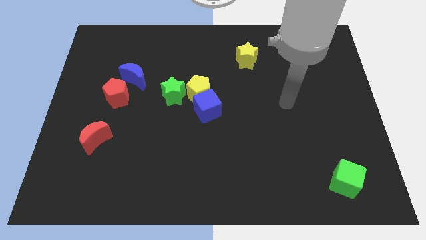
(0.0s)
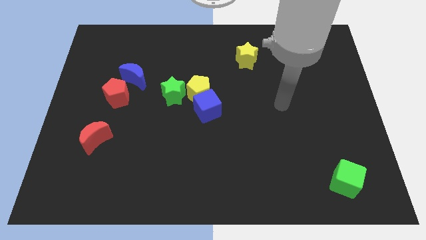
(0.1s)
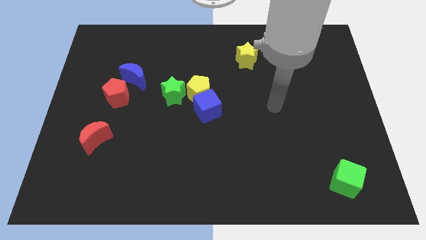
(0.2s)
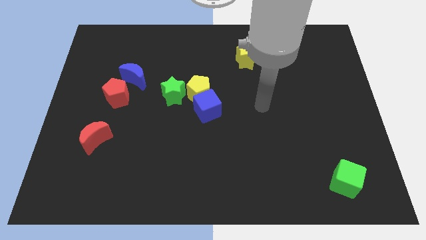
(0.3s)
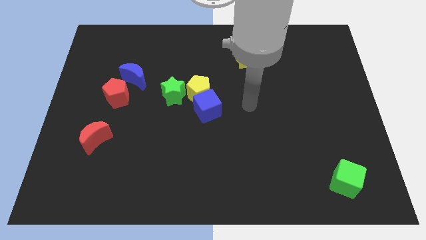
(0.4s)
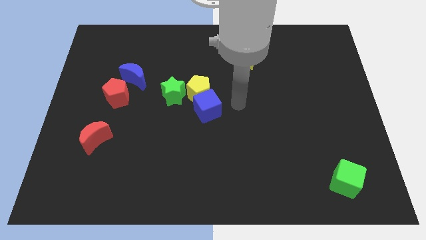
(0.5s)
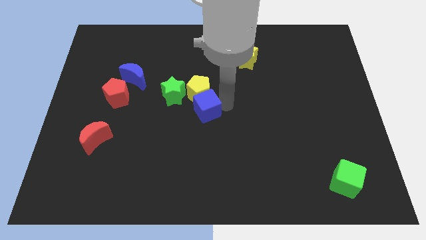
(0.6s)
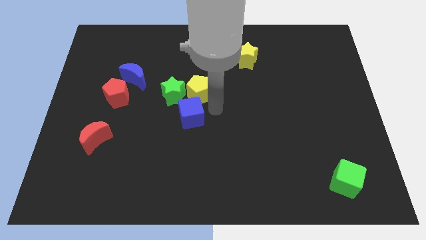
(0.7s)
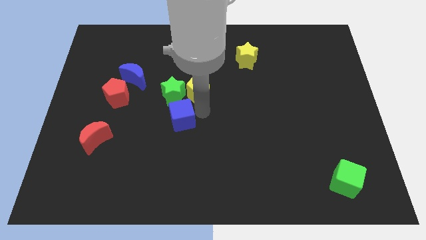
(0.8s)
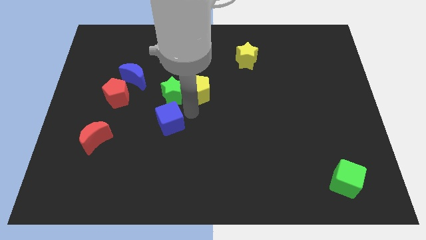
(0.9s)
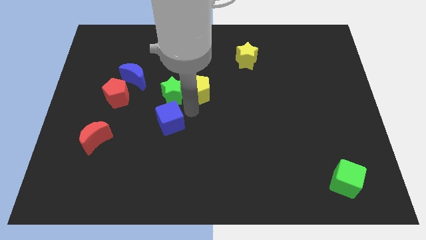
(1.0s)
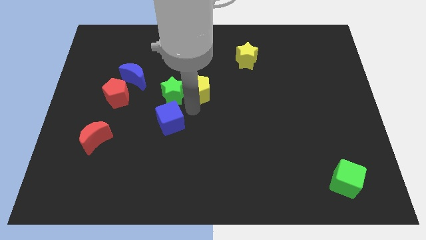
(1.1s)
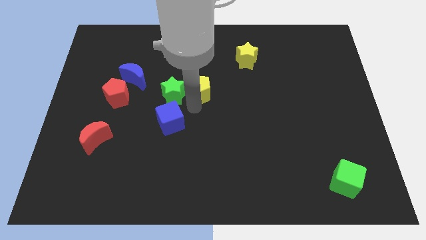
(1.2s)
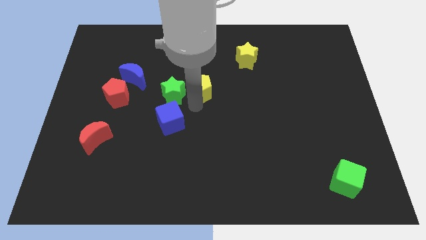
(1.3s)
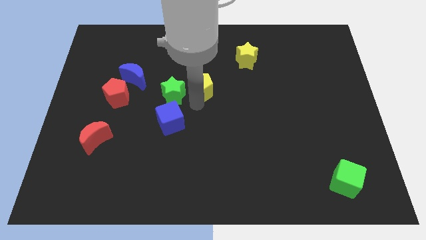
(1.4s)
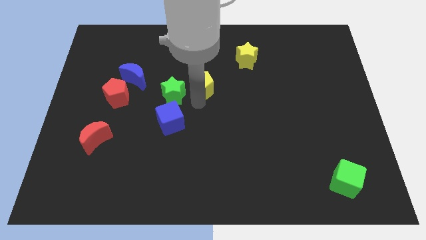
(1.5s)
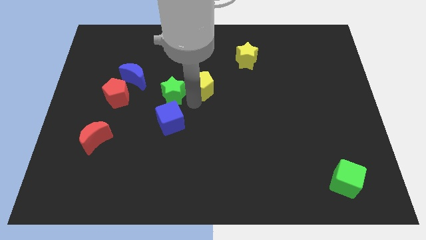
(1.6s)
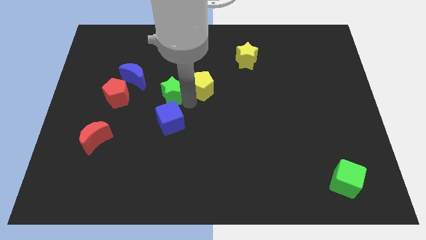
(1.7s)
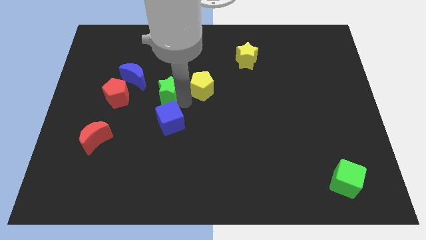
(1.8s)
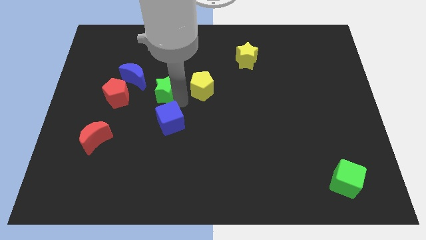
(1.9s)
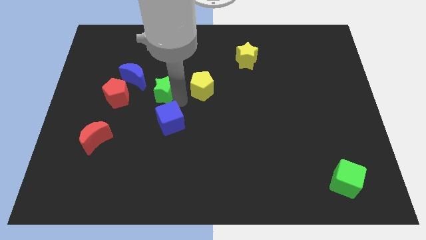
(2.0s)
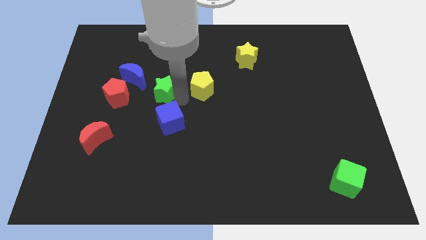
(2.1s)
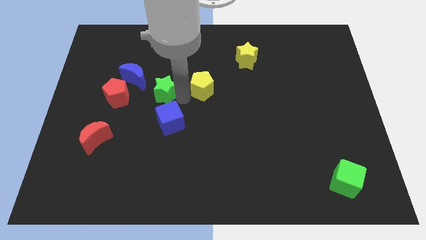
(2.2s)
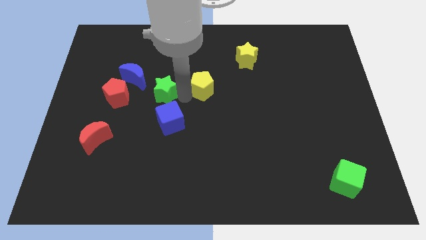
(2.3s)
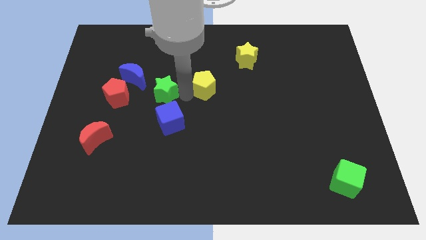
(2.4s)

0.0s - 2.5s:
move the yellow pentagon away from the blue cube and green star

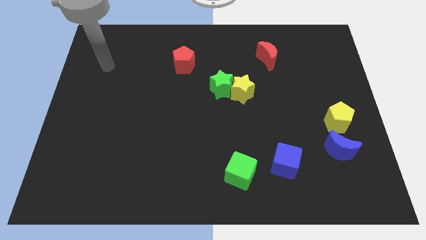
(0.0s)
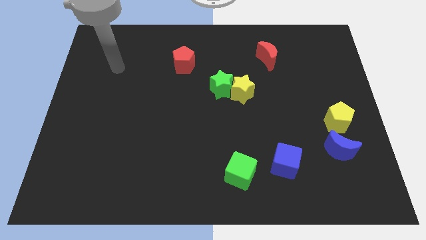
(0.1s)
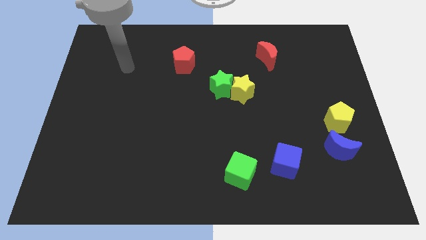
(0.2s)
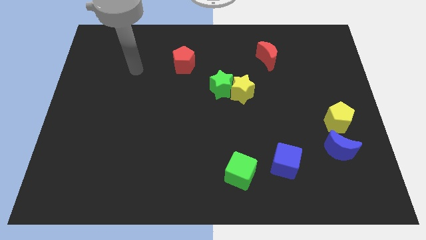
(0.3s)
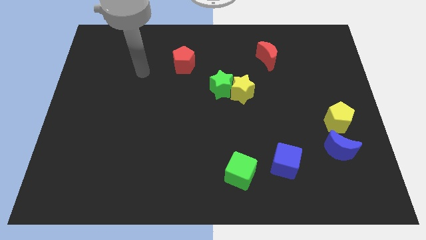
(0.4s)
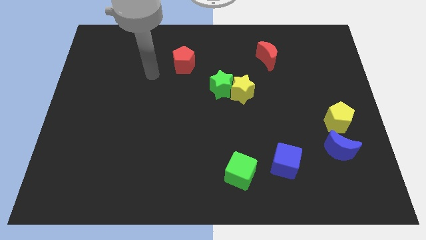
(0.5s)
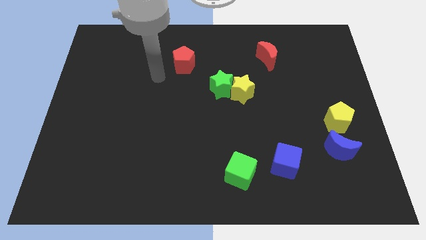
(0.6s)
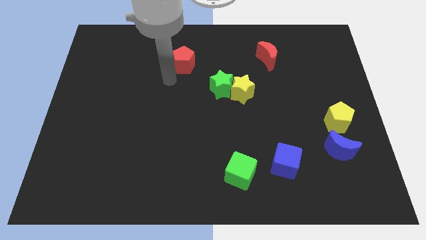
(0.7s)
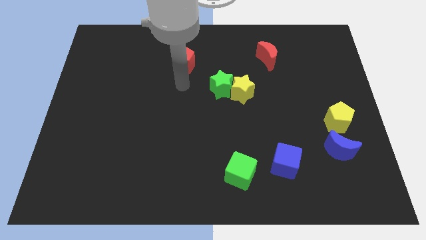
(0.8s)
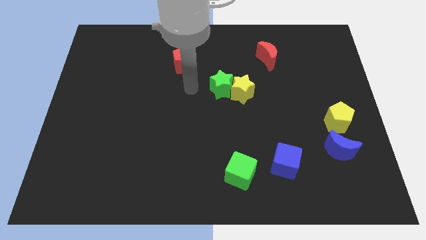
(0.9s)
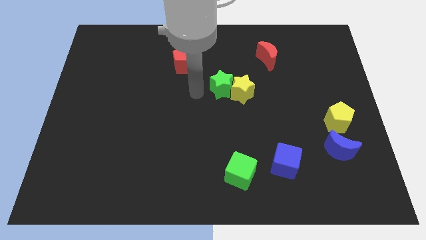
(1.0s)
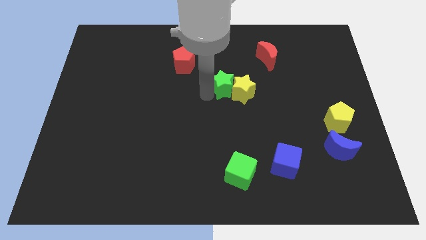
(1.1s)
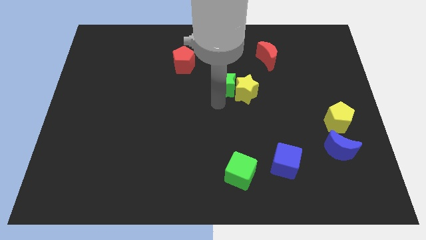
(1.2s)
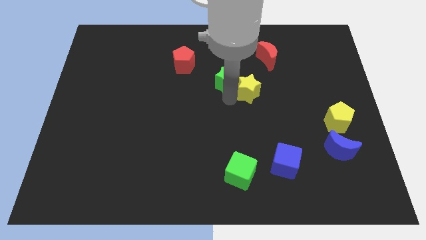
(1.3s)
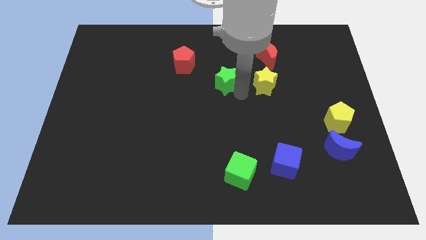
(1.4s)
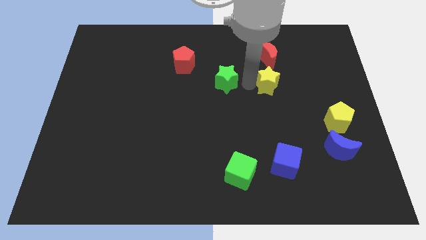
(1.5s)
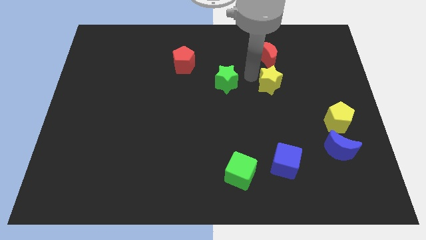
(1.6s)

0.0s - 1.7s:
pull the green star apart from the yellow star

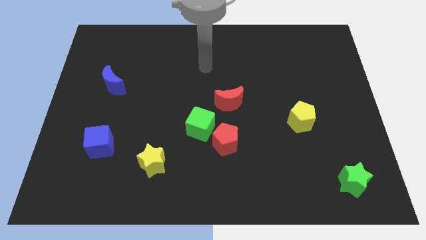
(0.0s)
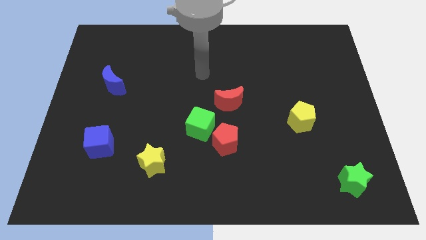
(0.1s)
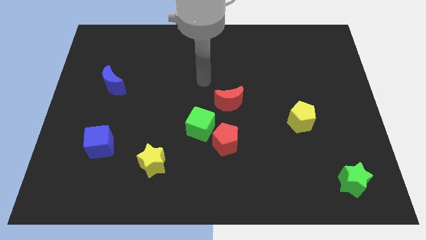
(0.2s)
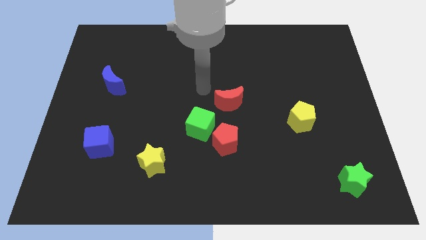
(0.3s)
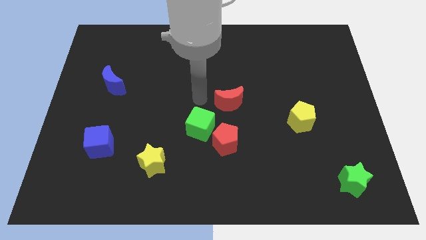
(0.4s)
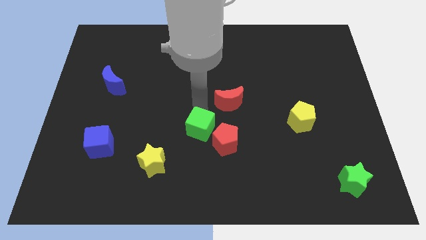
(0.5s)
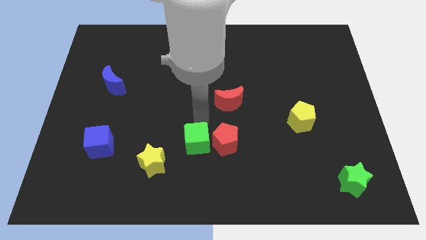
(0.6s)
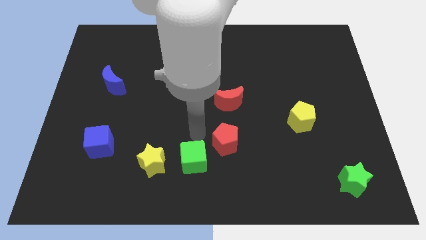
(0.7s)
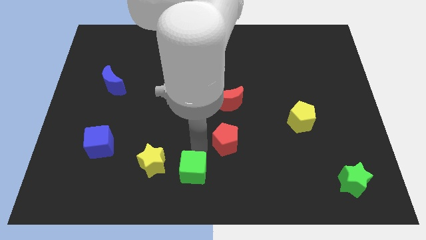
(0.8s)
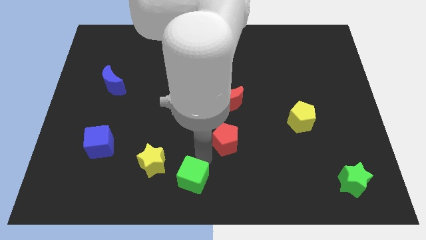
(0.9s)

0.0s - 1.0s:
pull the red pentagon apart from the green cube

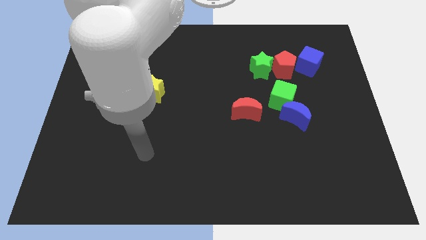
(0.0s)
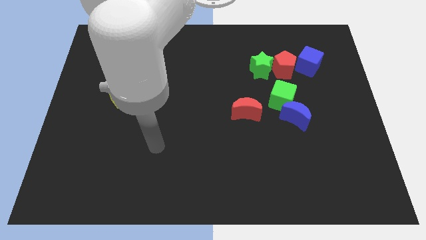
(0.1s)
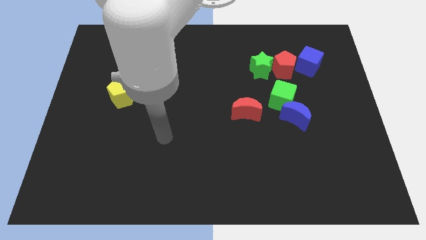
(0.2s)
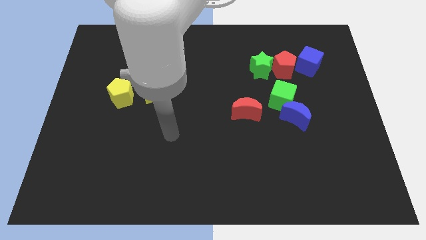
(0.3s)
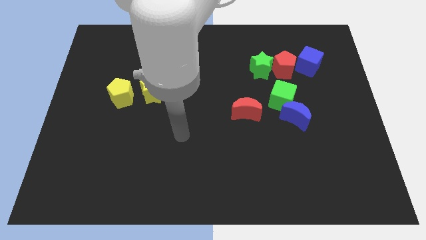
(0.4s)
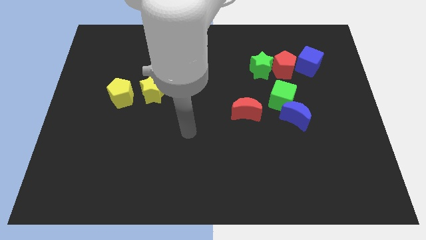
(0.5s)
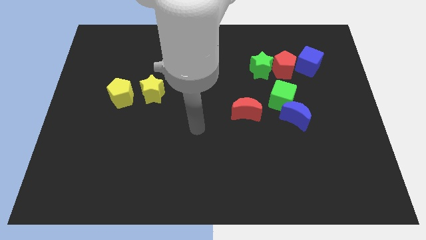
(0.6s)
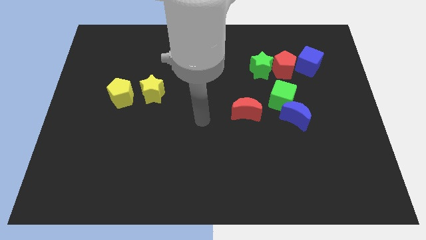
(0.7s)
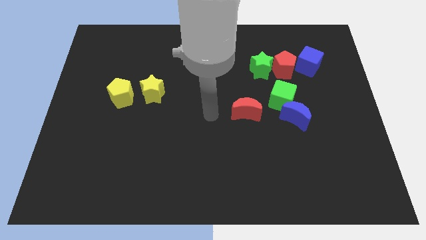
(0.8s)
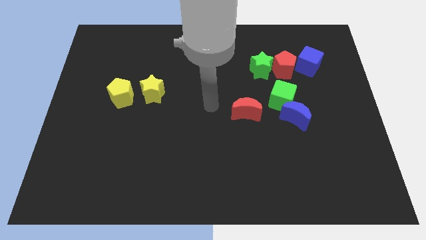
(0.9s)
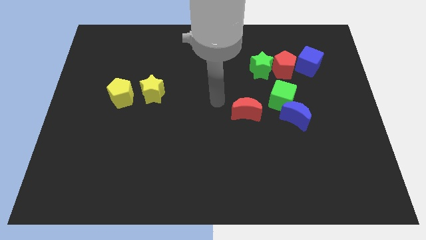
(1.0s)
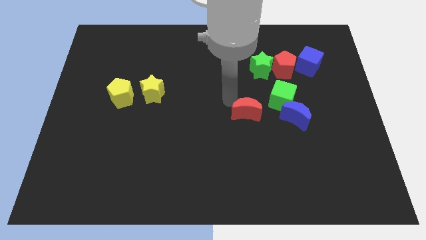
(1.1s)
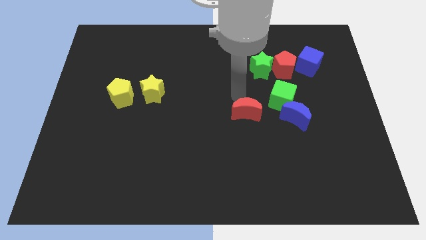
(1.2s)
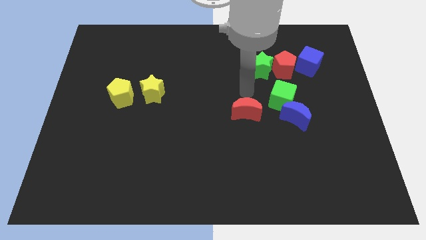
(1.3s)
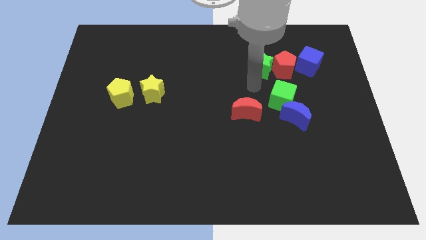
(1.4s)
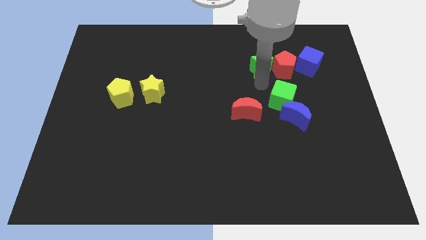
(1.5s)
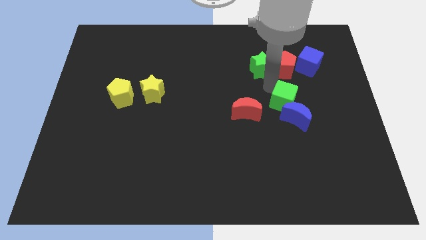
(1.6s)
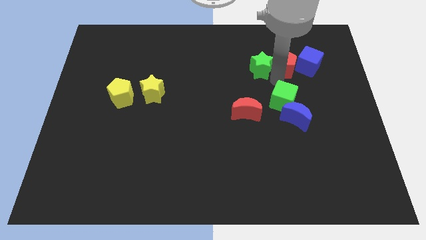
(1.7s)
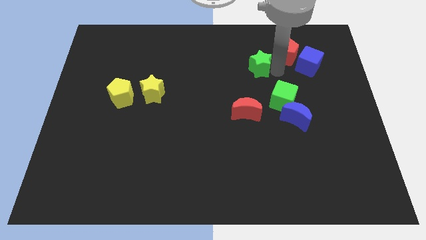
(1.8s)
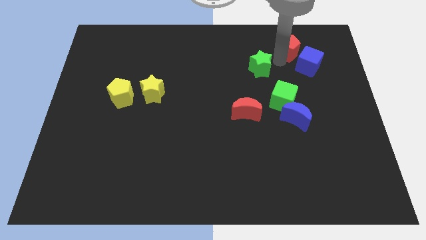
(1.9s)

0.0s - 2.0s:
move the green star away from the red pentagon

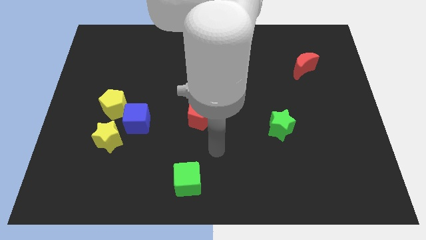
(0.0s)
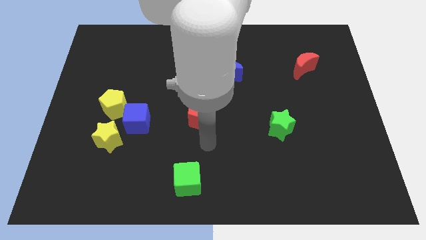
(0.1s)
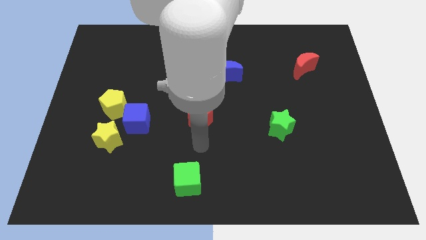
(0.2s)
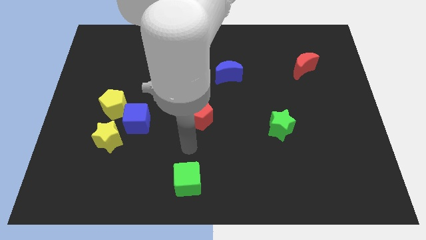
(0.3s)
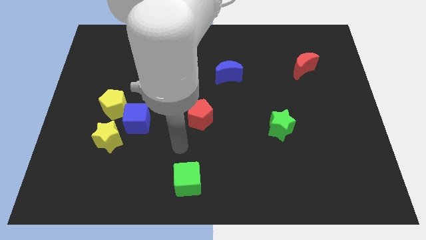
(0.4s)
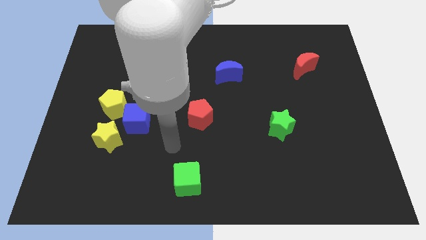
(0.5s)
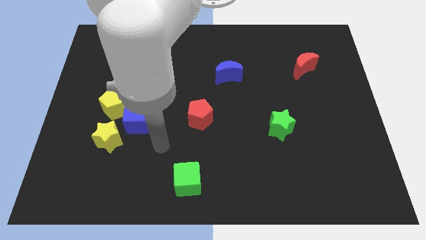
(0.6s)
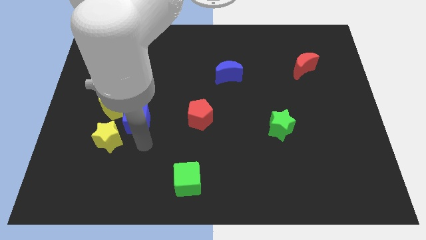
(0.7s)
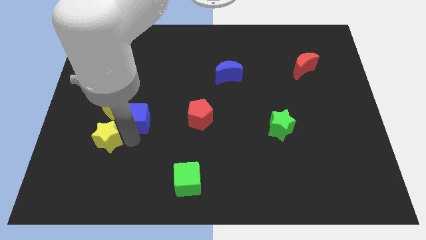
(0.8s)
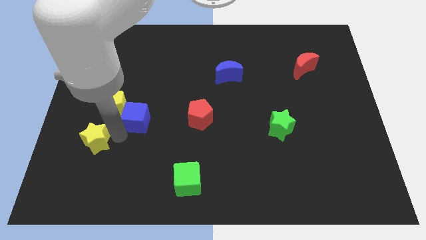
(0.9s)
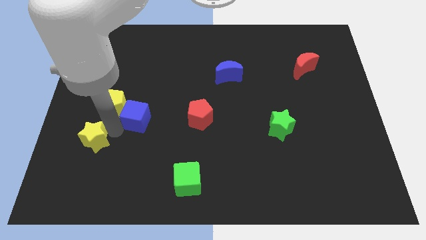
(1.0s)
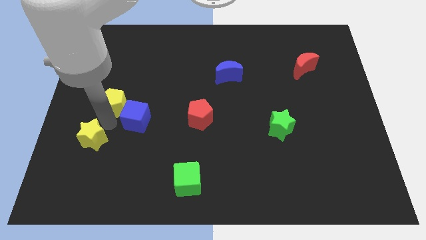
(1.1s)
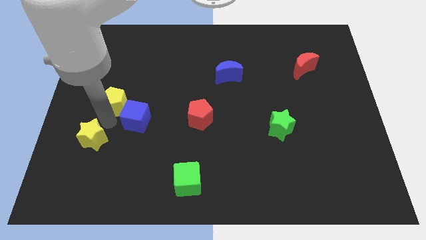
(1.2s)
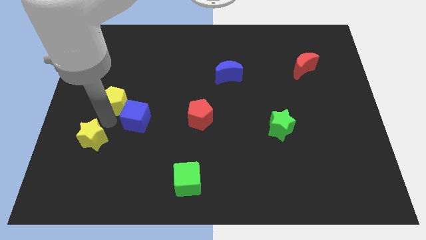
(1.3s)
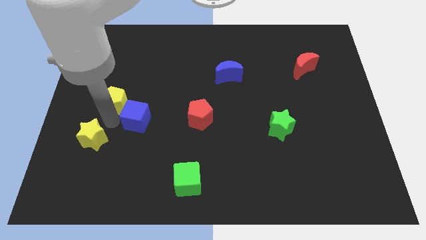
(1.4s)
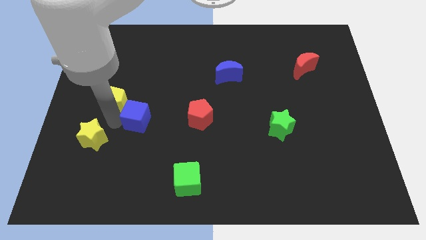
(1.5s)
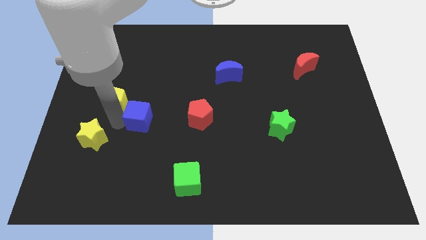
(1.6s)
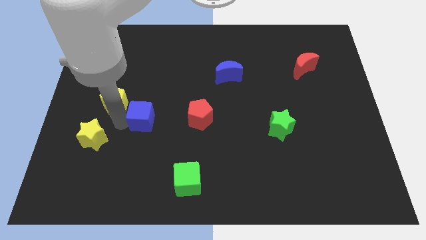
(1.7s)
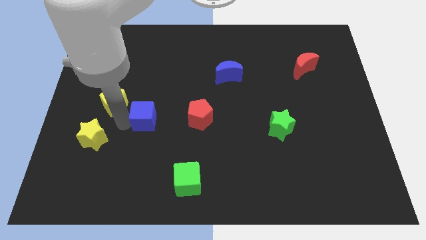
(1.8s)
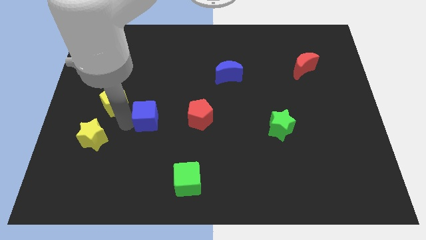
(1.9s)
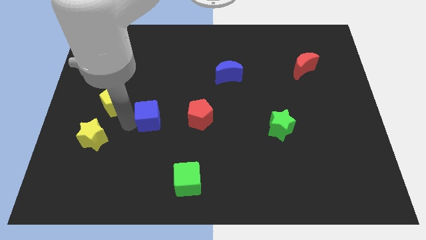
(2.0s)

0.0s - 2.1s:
move the blue cube away from the yellow pentagon and yellow star
